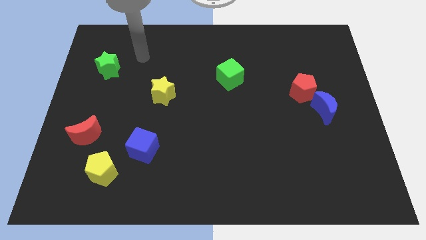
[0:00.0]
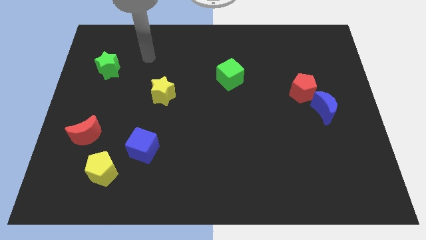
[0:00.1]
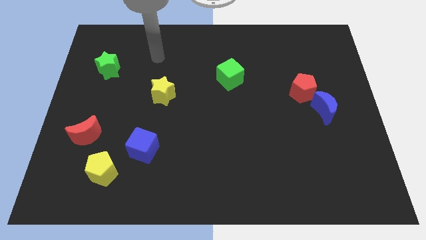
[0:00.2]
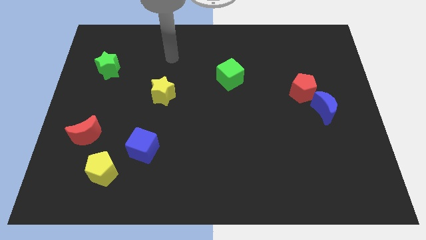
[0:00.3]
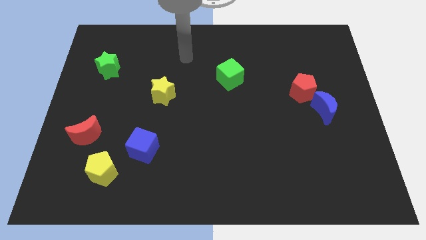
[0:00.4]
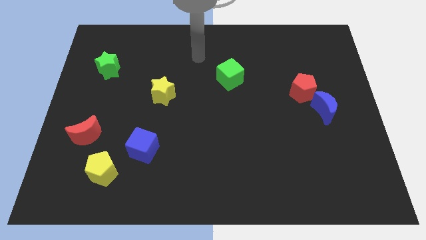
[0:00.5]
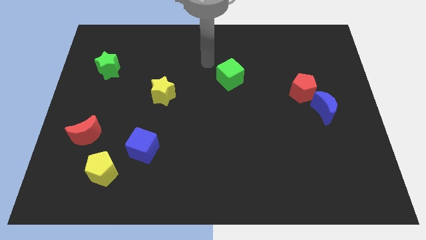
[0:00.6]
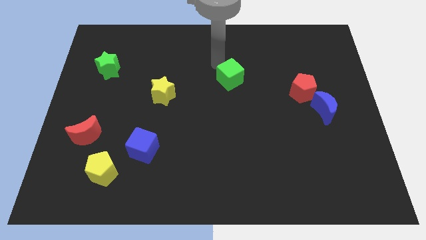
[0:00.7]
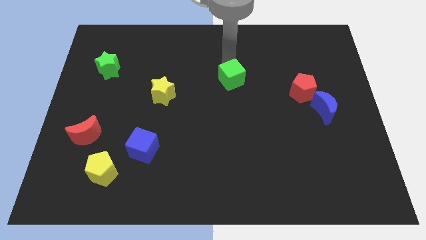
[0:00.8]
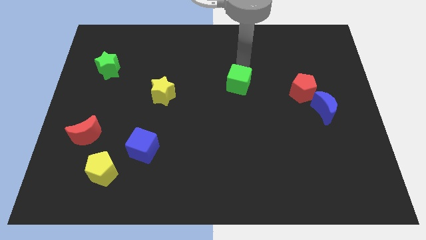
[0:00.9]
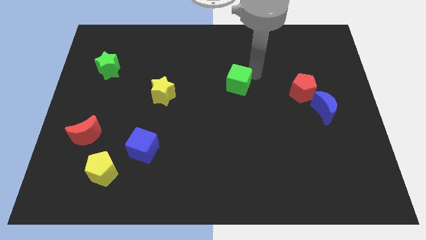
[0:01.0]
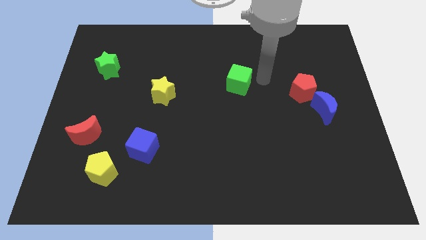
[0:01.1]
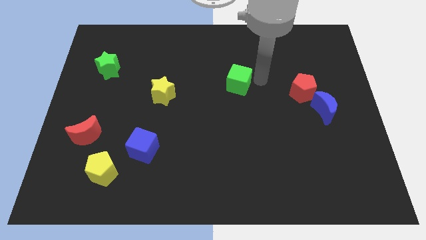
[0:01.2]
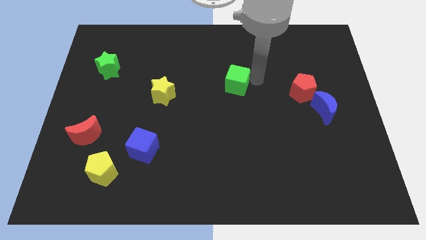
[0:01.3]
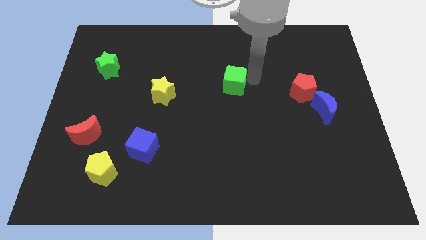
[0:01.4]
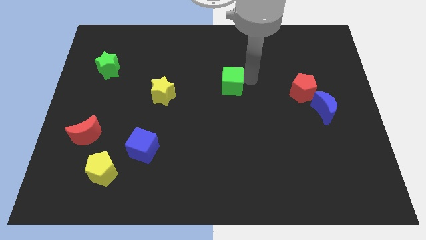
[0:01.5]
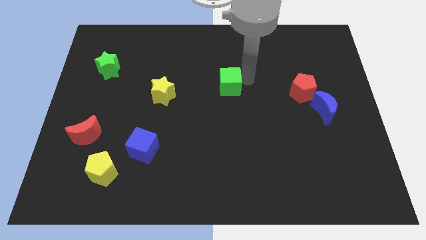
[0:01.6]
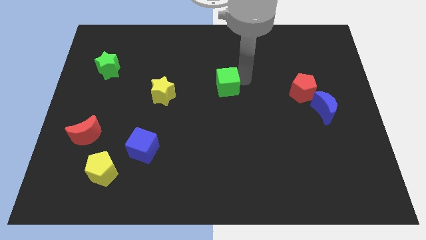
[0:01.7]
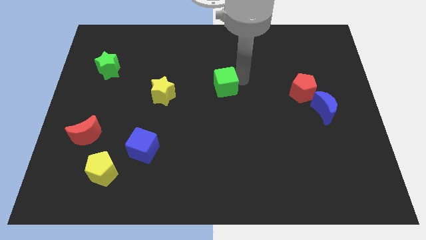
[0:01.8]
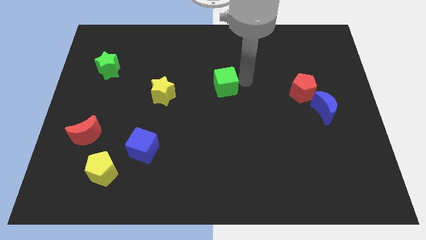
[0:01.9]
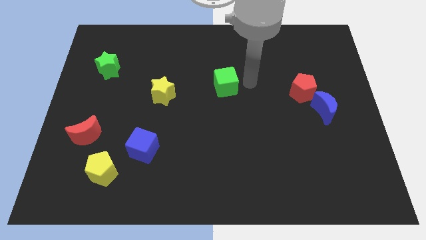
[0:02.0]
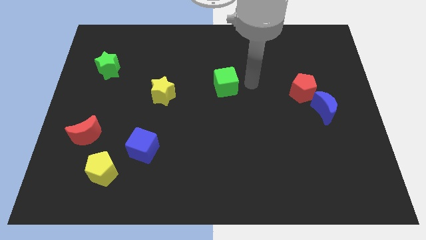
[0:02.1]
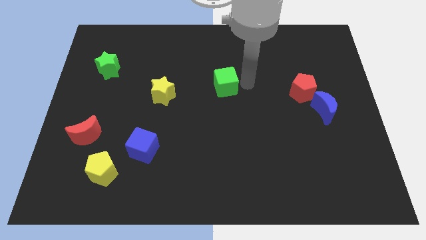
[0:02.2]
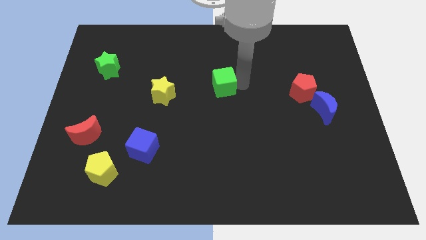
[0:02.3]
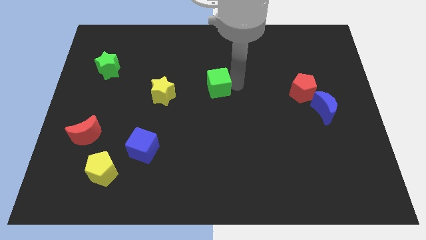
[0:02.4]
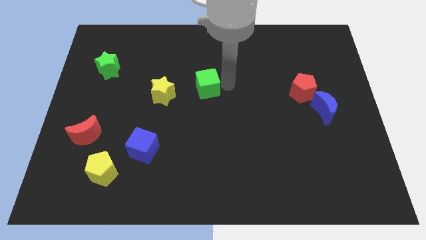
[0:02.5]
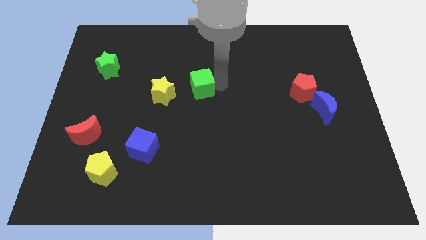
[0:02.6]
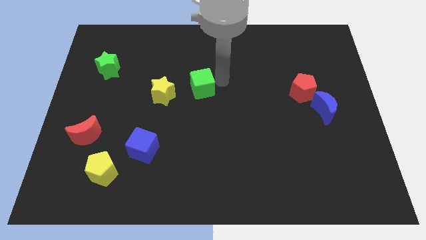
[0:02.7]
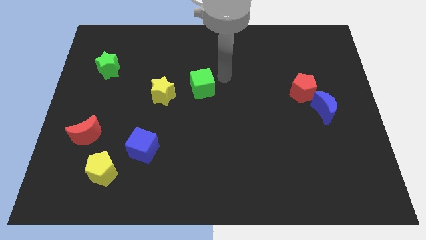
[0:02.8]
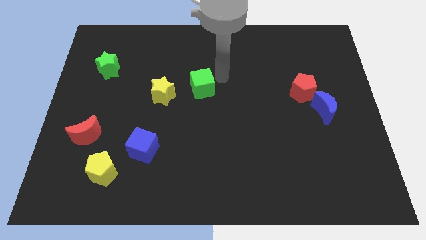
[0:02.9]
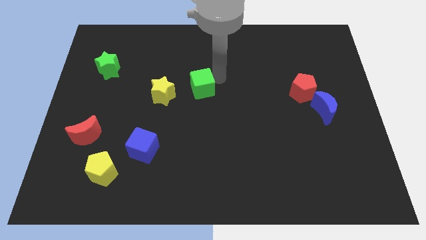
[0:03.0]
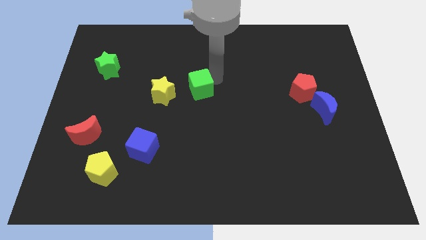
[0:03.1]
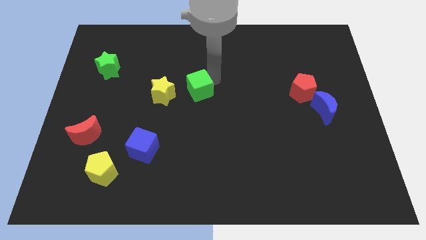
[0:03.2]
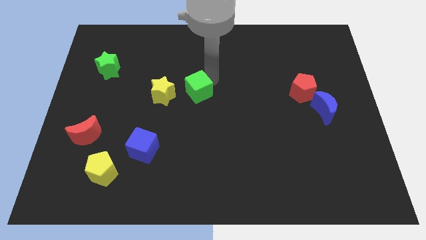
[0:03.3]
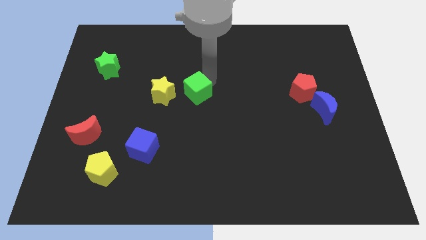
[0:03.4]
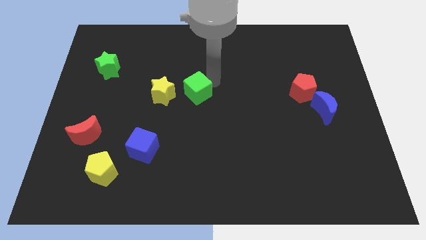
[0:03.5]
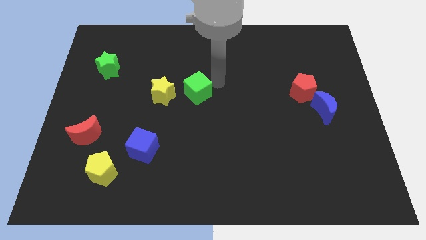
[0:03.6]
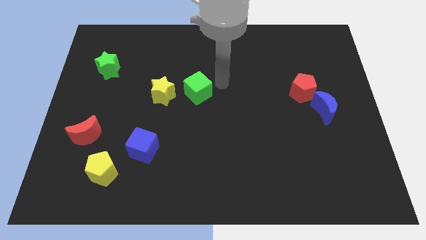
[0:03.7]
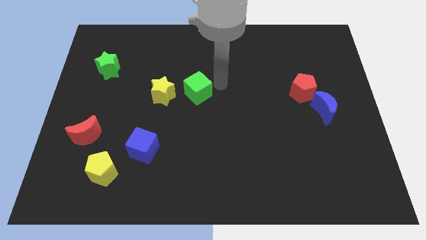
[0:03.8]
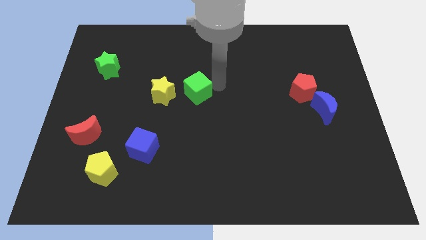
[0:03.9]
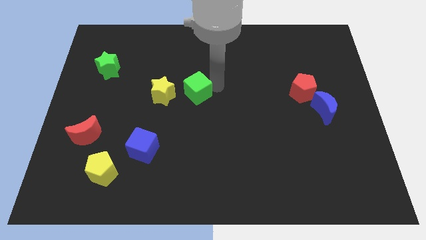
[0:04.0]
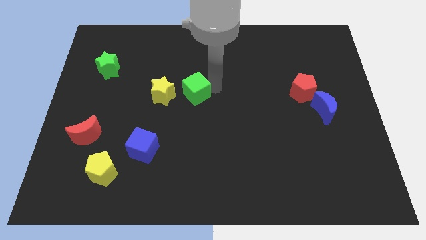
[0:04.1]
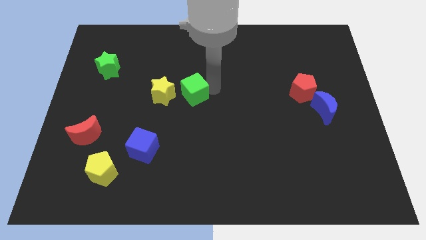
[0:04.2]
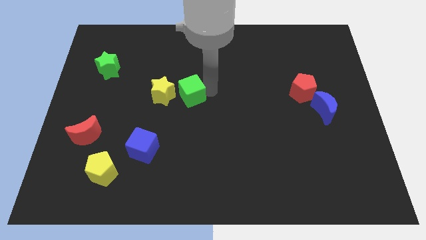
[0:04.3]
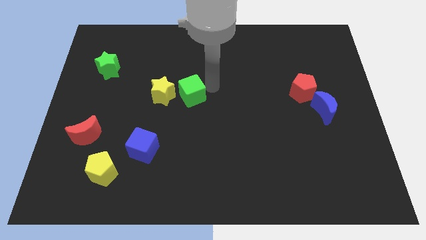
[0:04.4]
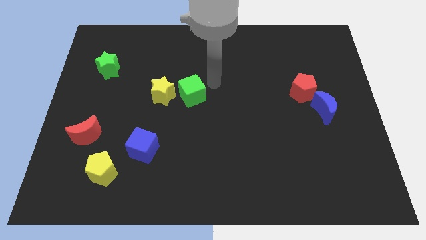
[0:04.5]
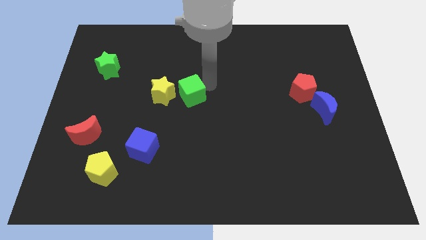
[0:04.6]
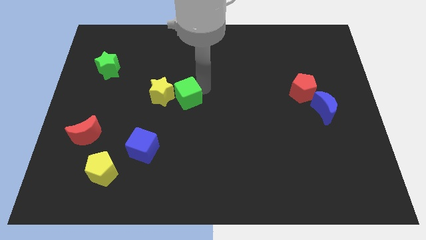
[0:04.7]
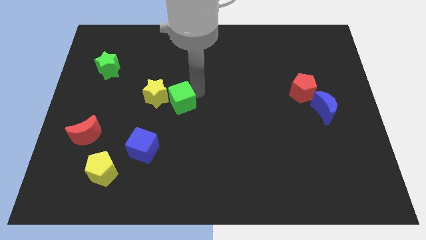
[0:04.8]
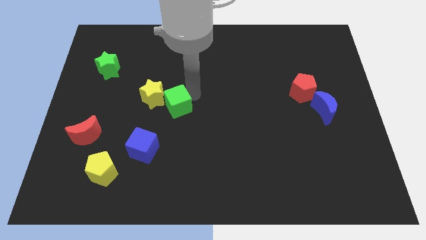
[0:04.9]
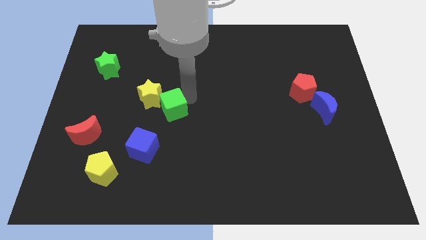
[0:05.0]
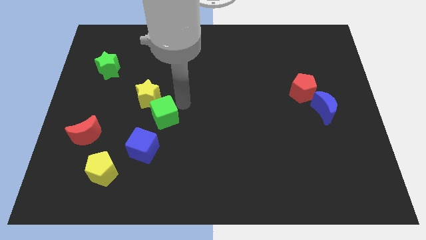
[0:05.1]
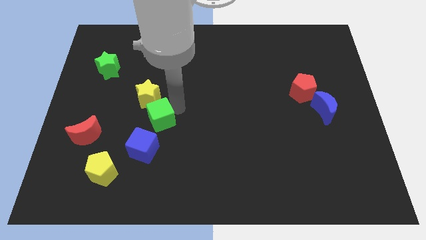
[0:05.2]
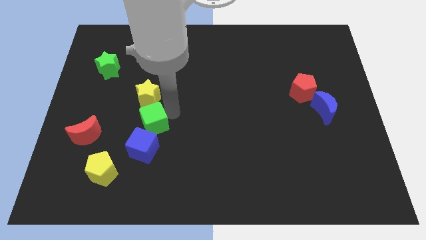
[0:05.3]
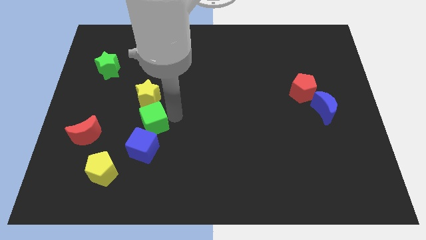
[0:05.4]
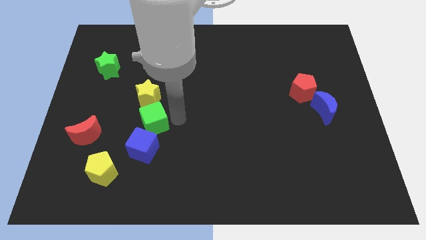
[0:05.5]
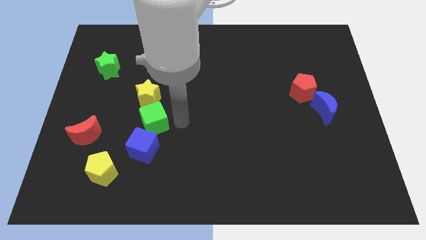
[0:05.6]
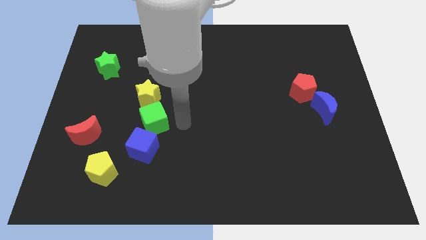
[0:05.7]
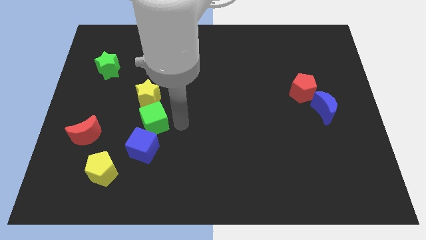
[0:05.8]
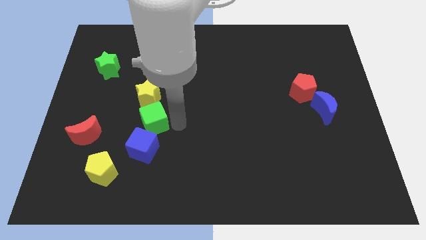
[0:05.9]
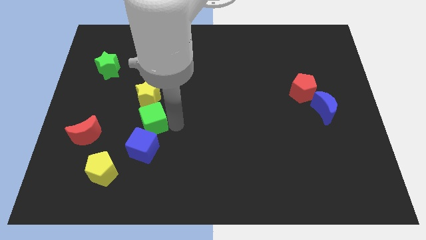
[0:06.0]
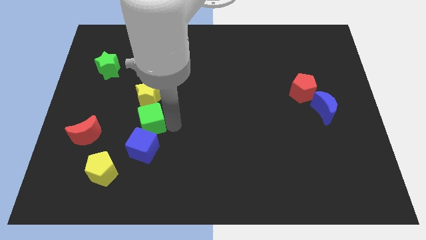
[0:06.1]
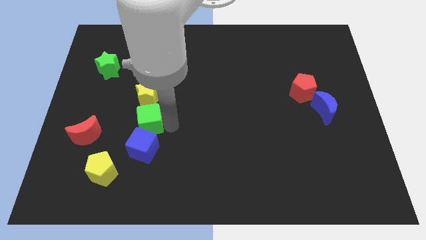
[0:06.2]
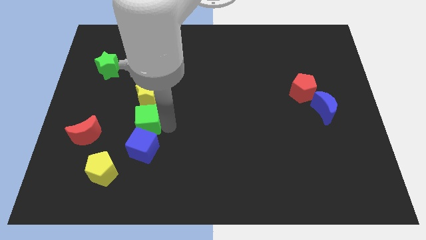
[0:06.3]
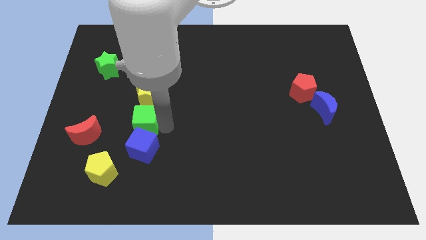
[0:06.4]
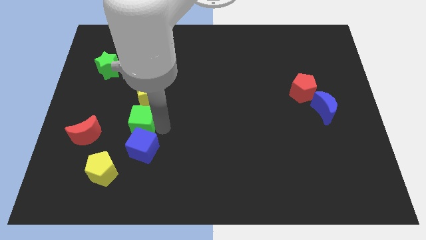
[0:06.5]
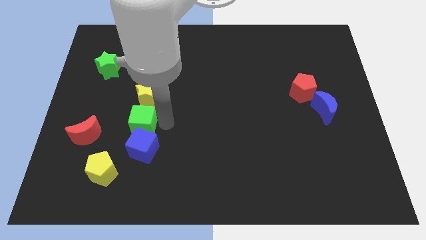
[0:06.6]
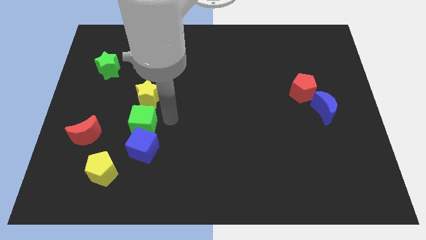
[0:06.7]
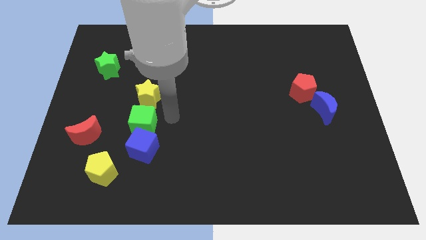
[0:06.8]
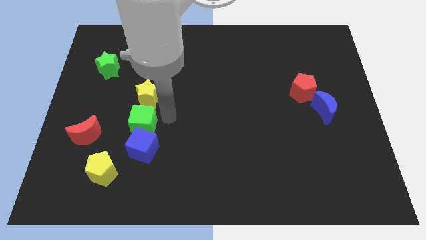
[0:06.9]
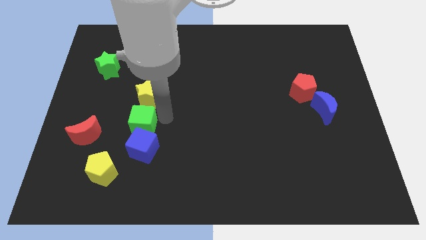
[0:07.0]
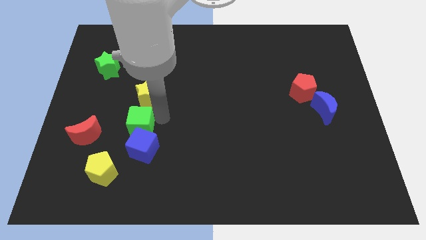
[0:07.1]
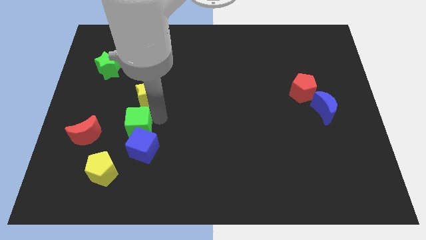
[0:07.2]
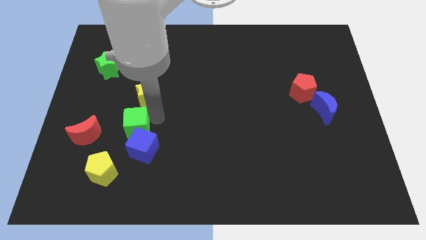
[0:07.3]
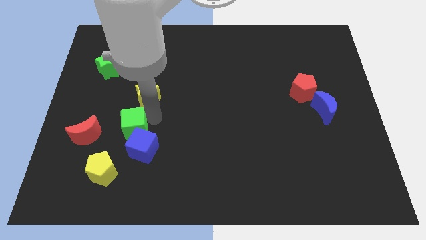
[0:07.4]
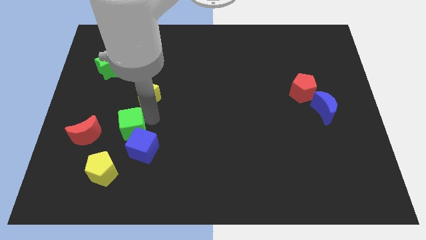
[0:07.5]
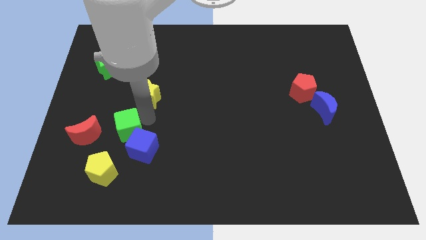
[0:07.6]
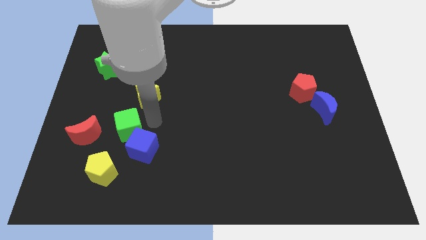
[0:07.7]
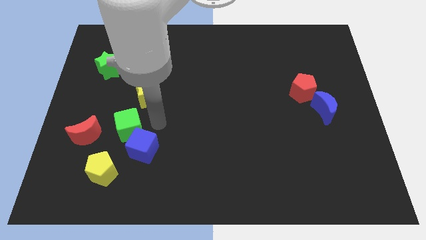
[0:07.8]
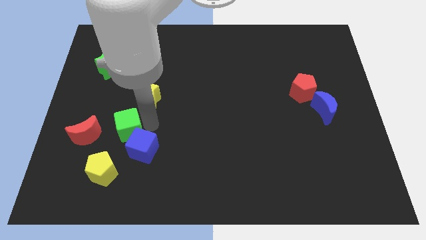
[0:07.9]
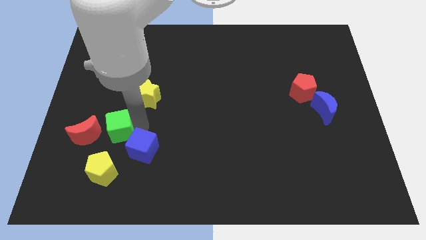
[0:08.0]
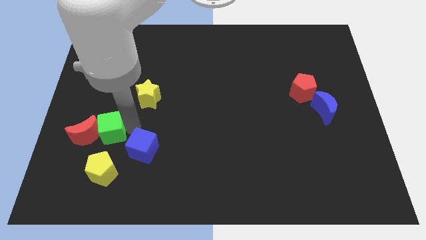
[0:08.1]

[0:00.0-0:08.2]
move the green cube close to the red moon
